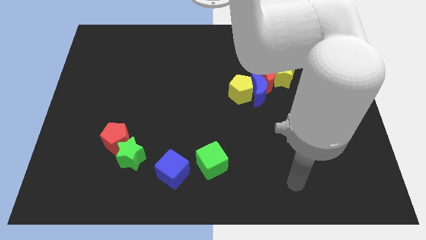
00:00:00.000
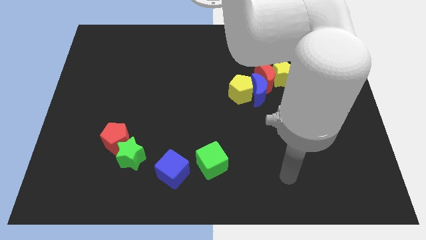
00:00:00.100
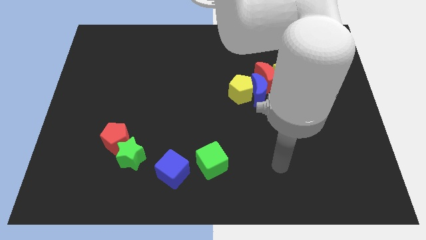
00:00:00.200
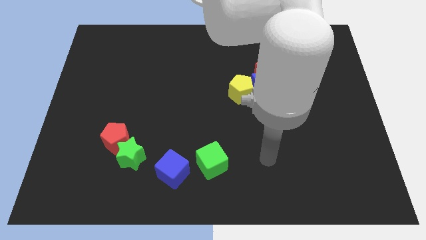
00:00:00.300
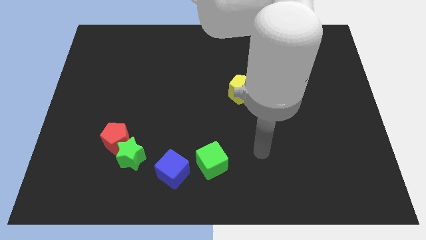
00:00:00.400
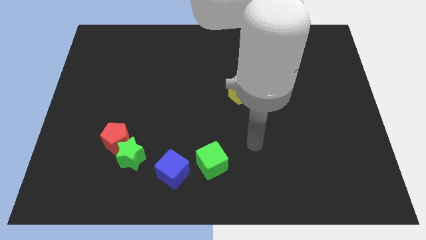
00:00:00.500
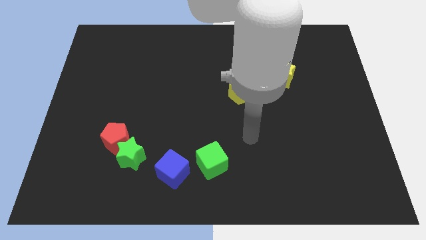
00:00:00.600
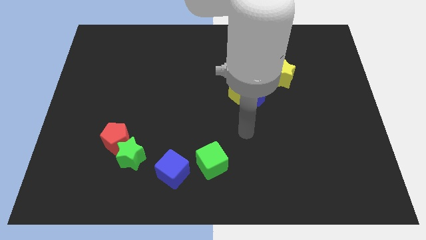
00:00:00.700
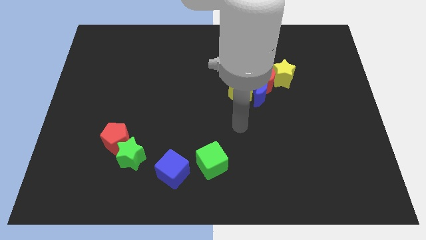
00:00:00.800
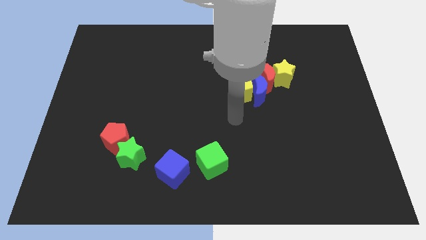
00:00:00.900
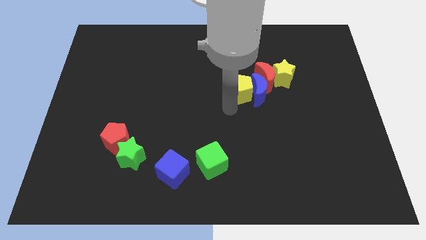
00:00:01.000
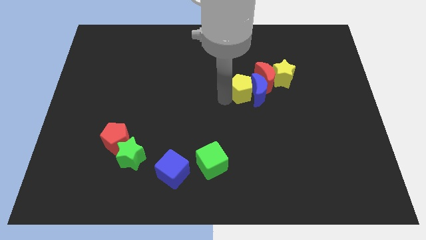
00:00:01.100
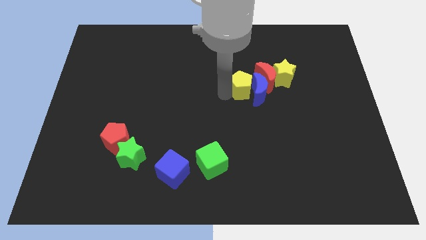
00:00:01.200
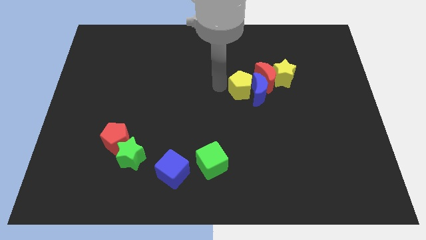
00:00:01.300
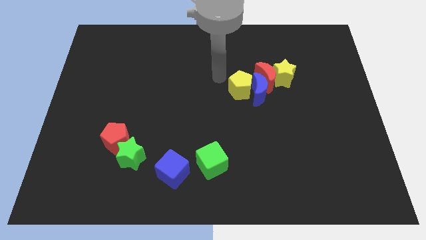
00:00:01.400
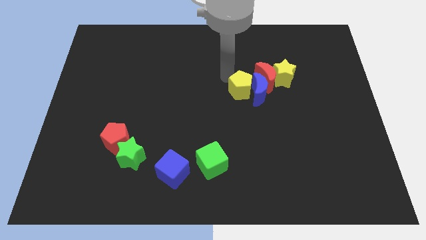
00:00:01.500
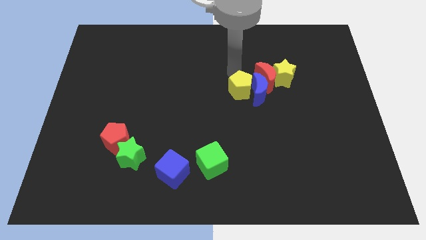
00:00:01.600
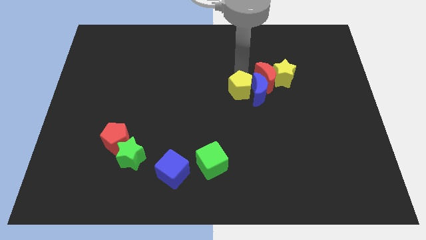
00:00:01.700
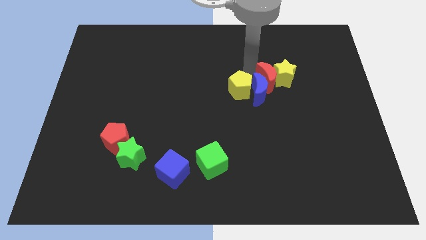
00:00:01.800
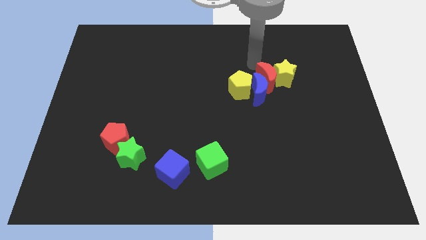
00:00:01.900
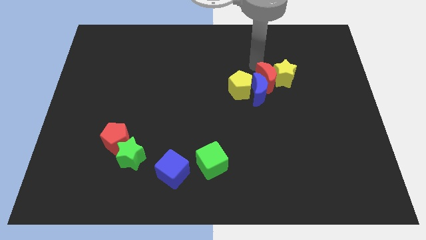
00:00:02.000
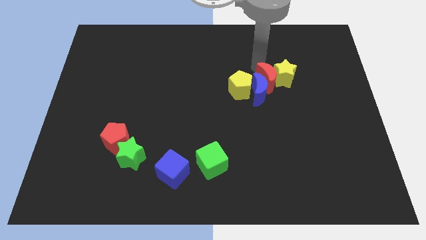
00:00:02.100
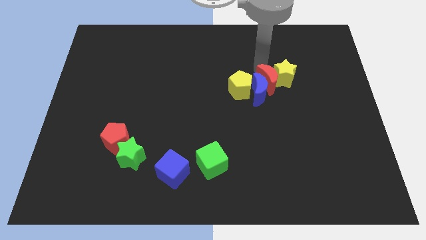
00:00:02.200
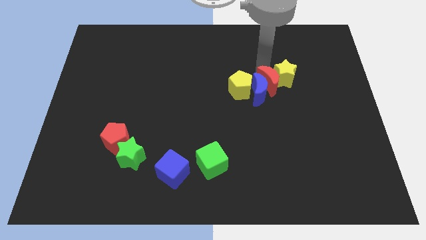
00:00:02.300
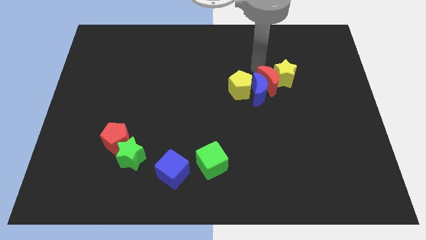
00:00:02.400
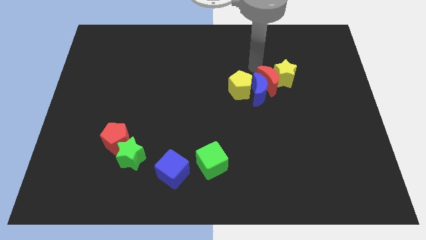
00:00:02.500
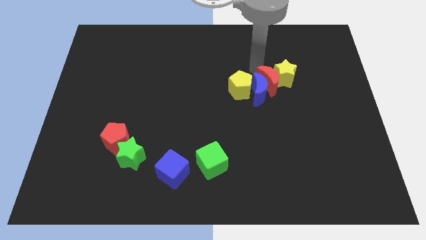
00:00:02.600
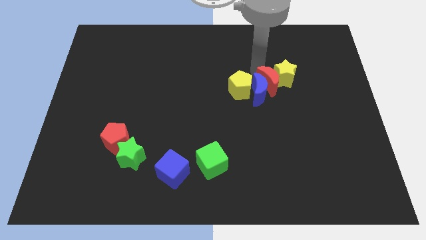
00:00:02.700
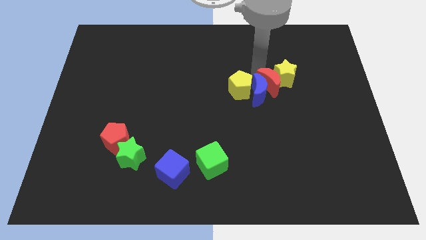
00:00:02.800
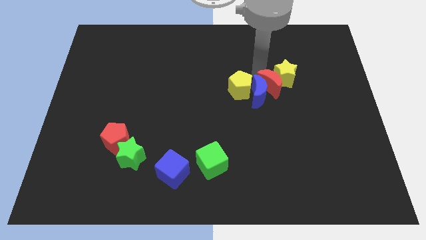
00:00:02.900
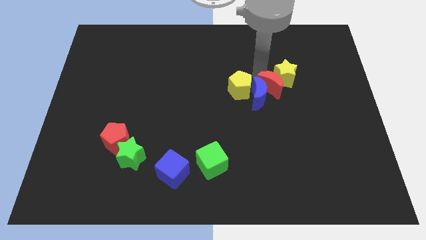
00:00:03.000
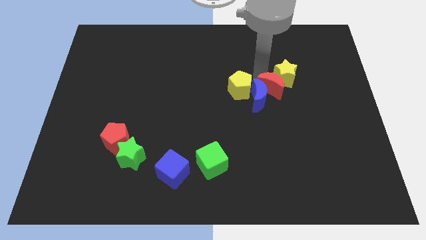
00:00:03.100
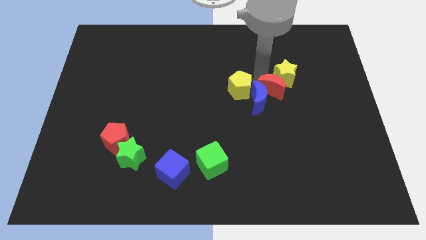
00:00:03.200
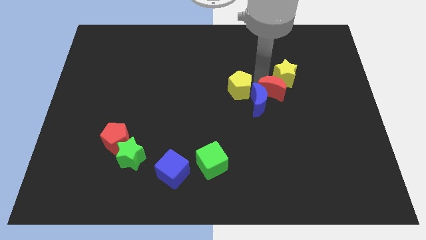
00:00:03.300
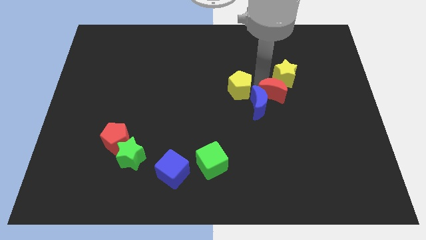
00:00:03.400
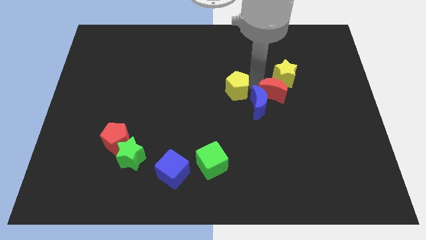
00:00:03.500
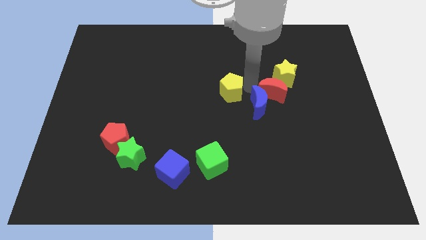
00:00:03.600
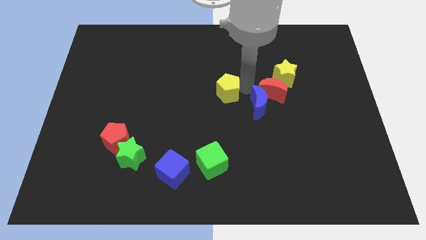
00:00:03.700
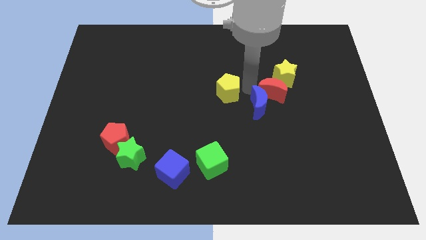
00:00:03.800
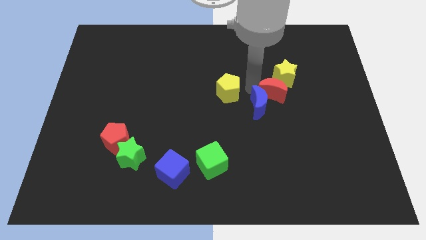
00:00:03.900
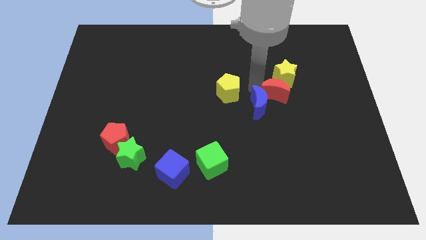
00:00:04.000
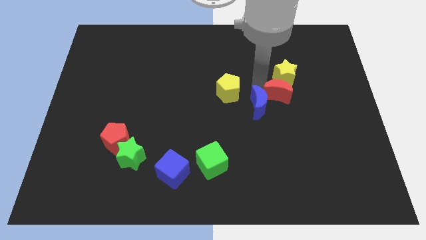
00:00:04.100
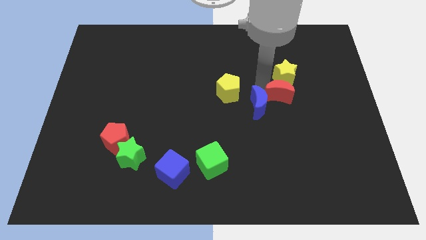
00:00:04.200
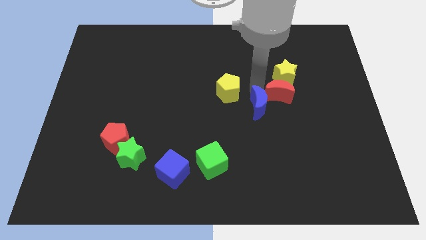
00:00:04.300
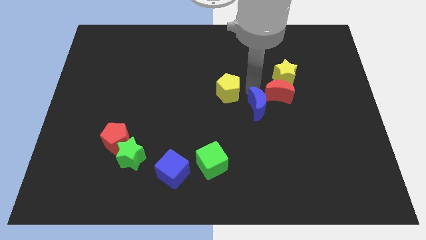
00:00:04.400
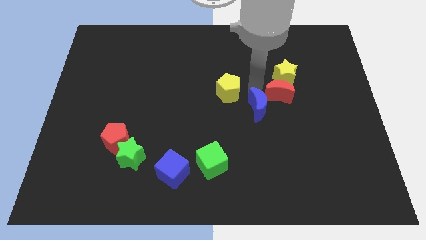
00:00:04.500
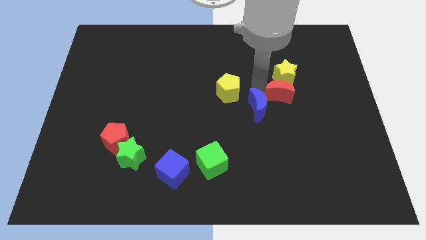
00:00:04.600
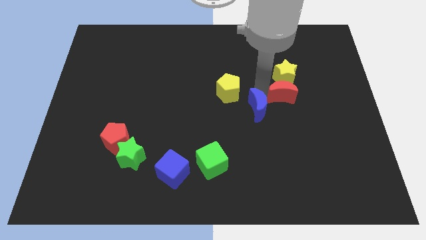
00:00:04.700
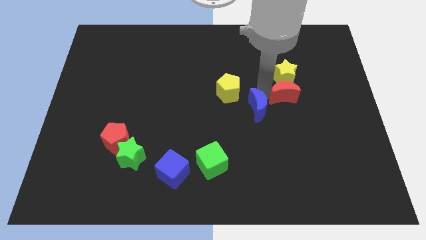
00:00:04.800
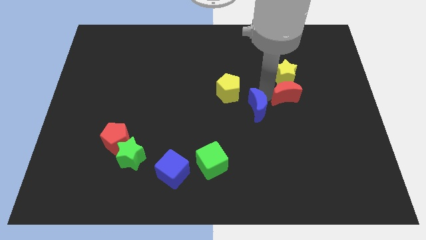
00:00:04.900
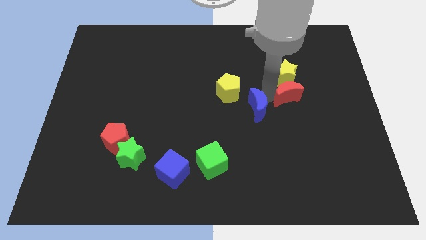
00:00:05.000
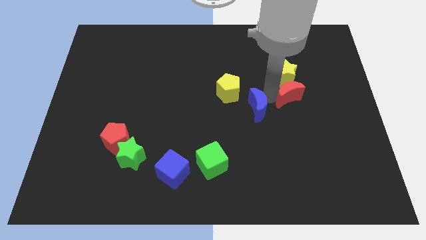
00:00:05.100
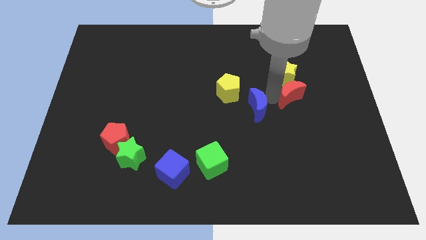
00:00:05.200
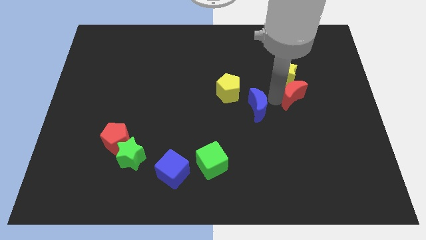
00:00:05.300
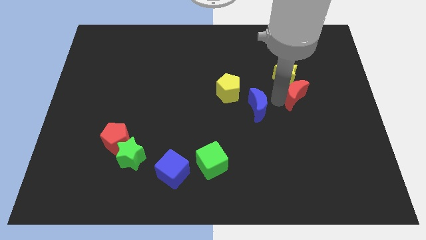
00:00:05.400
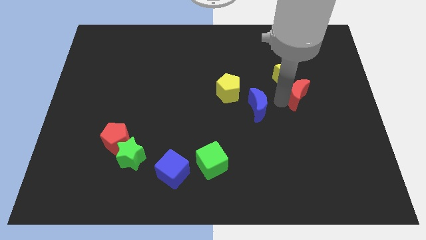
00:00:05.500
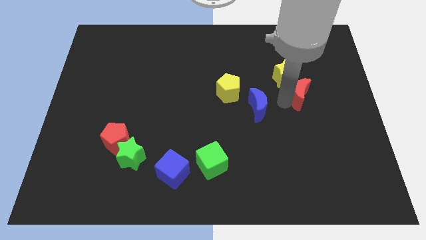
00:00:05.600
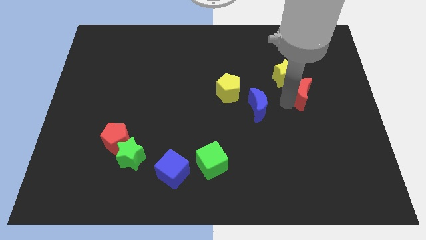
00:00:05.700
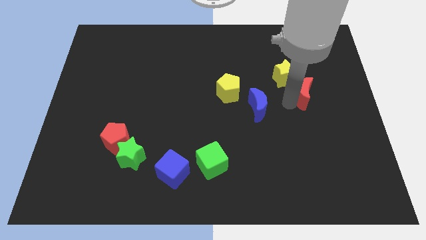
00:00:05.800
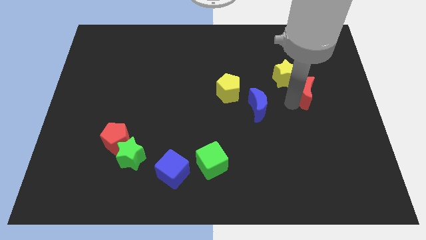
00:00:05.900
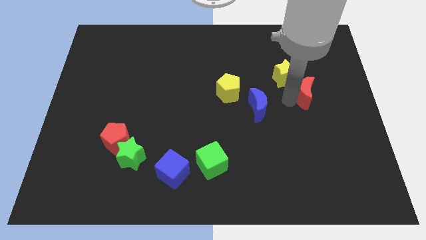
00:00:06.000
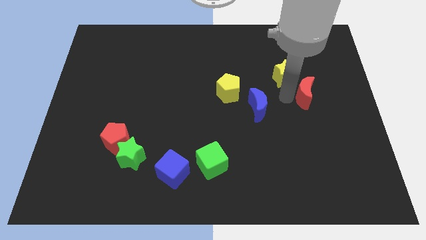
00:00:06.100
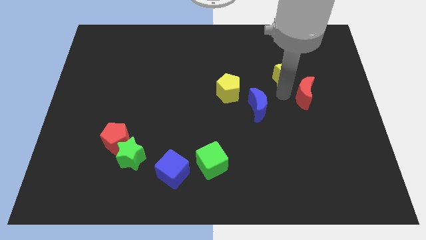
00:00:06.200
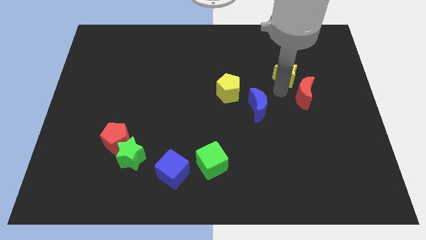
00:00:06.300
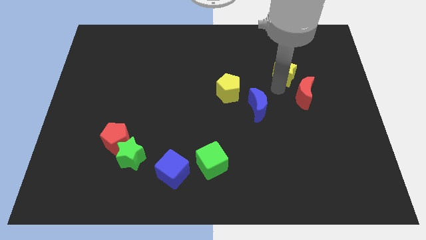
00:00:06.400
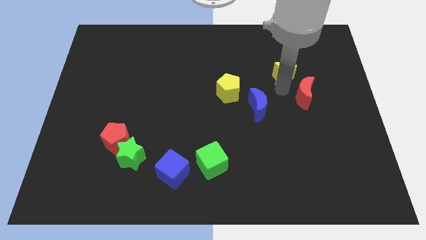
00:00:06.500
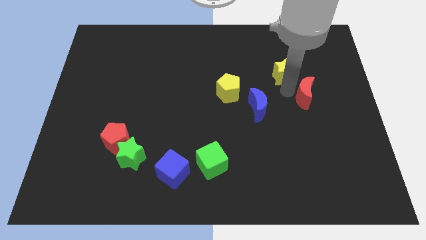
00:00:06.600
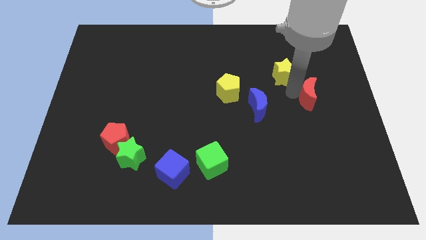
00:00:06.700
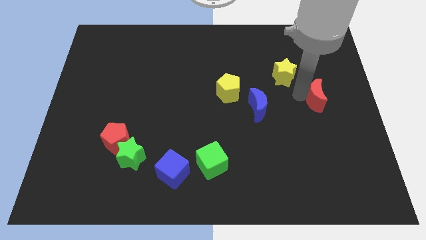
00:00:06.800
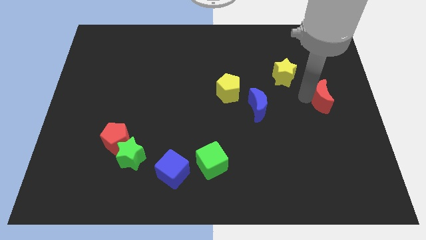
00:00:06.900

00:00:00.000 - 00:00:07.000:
push the red moon to the right side of the board
